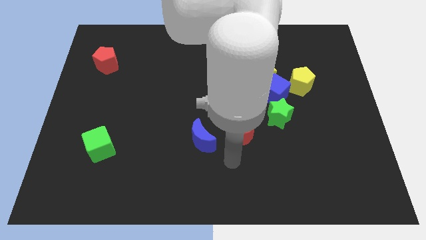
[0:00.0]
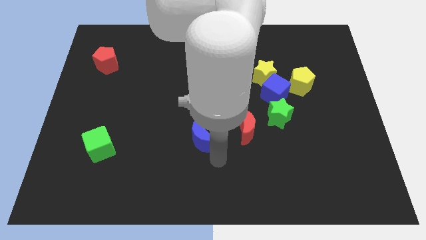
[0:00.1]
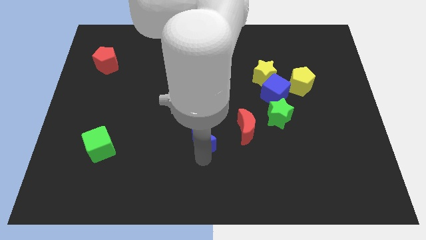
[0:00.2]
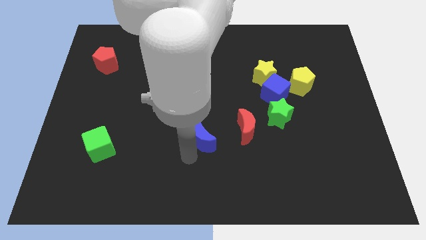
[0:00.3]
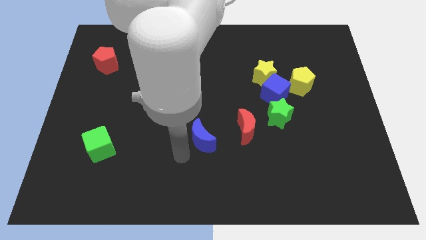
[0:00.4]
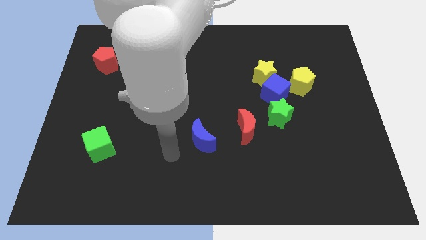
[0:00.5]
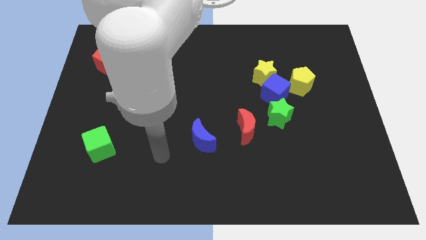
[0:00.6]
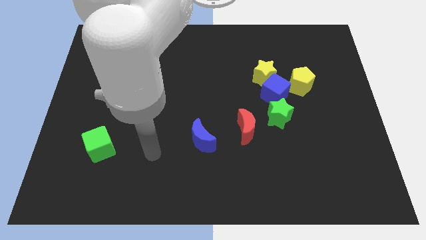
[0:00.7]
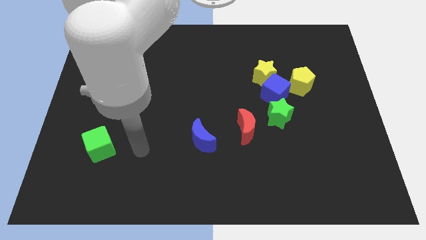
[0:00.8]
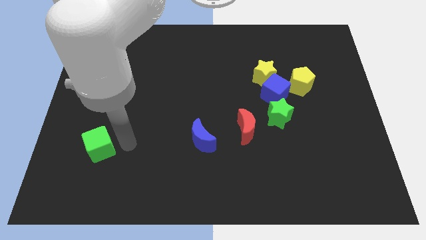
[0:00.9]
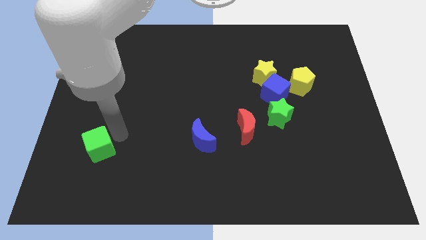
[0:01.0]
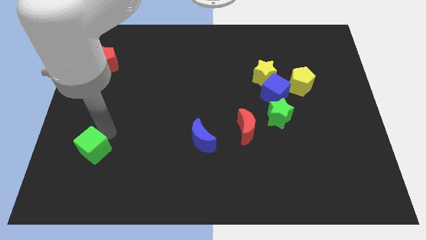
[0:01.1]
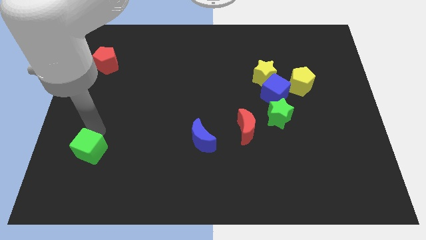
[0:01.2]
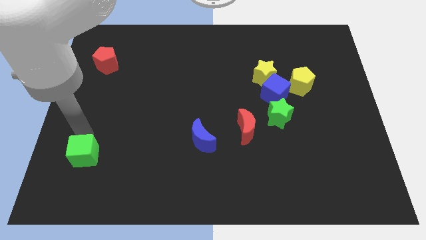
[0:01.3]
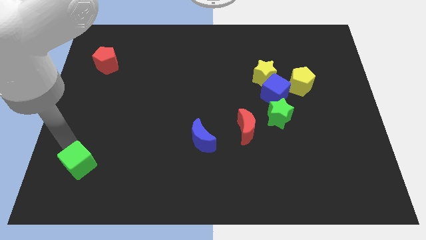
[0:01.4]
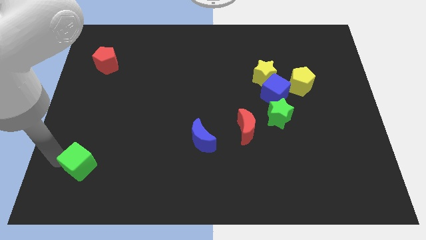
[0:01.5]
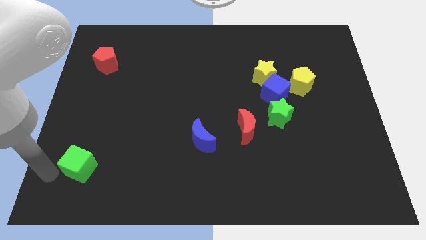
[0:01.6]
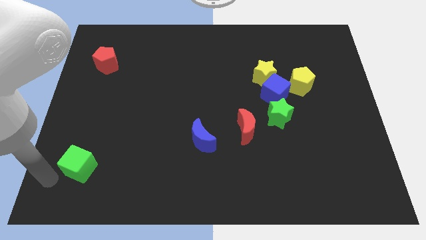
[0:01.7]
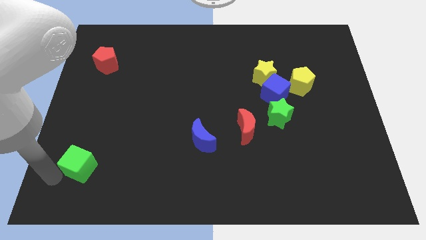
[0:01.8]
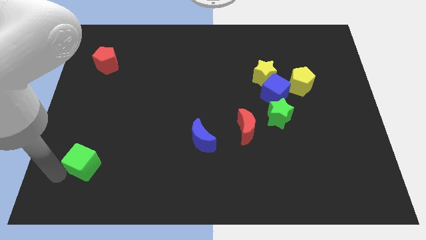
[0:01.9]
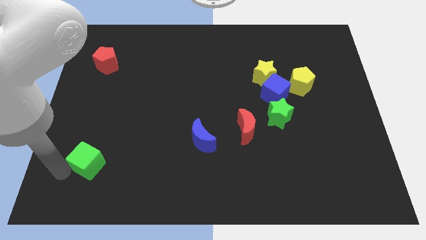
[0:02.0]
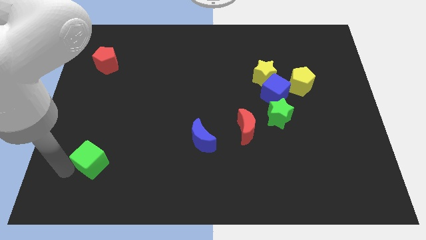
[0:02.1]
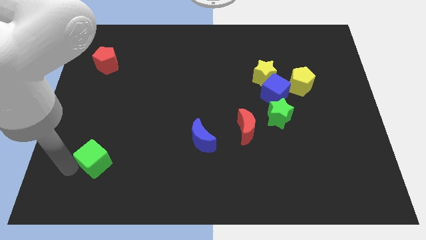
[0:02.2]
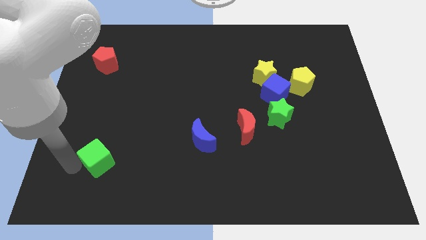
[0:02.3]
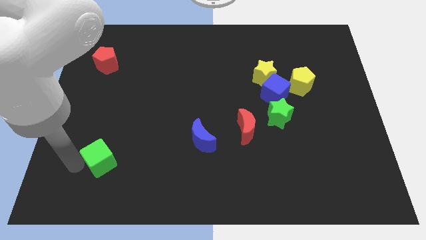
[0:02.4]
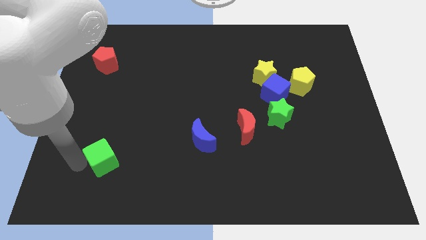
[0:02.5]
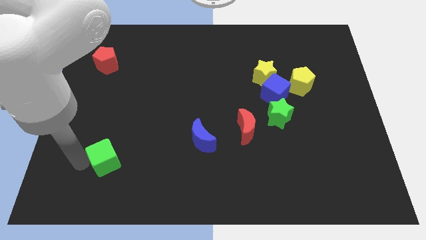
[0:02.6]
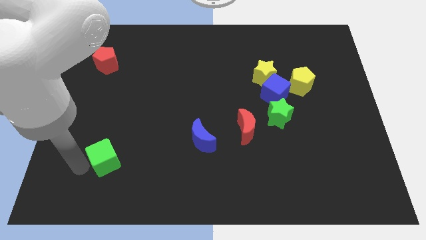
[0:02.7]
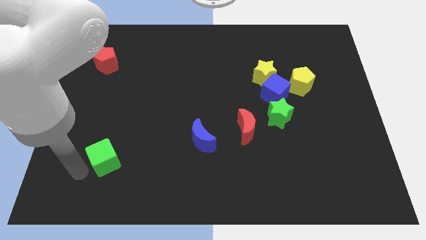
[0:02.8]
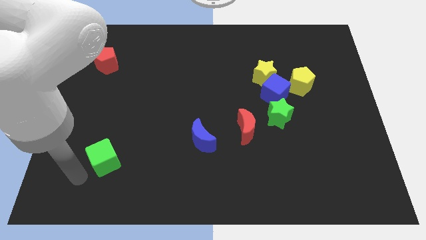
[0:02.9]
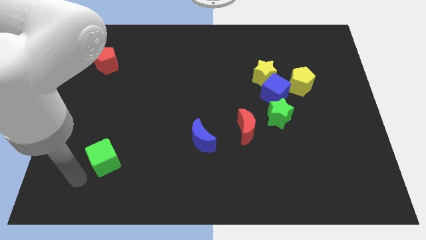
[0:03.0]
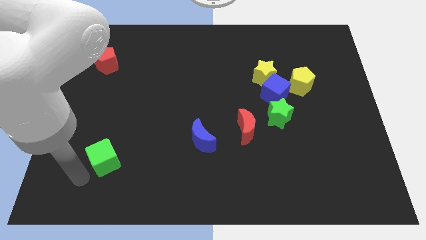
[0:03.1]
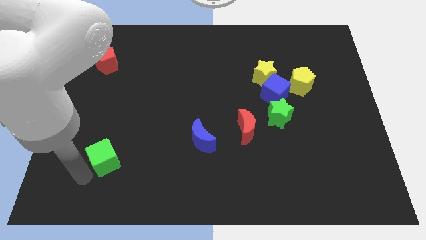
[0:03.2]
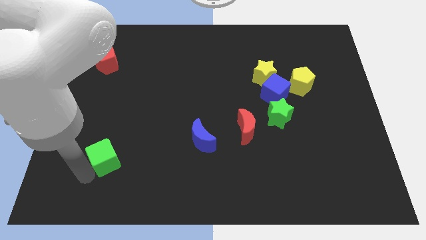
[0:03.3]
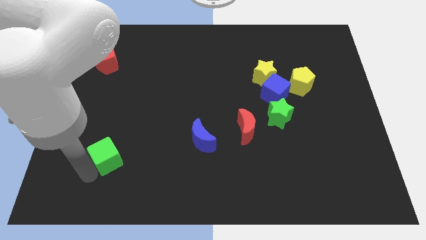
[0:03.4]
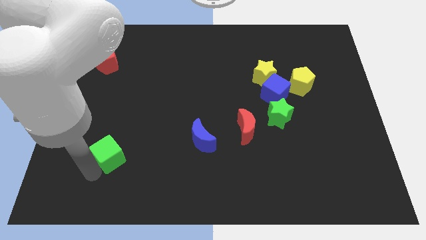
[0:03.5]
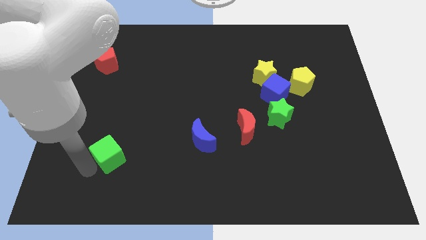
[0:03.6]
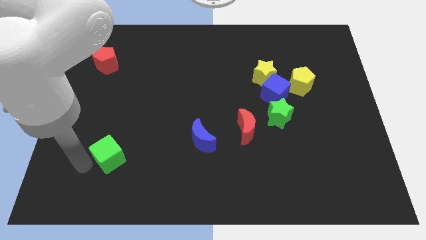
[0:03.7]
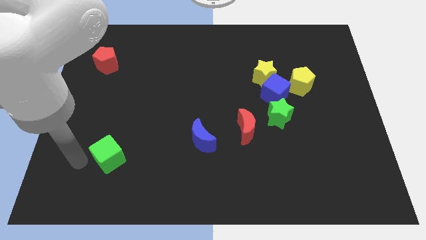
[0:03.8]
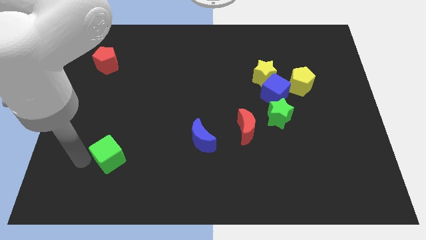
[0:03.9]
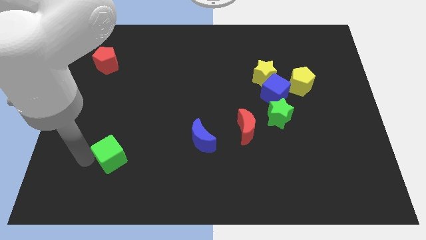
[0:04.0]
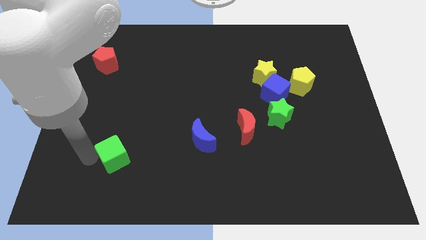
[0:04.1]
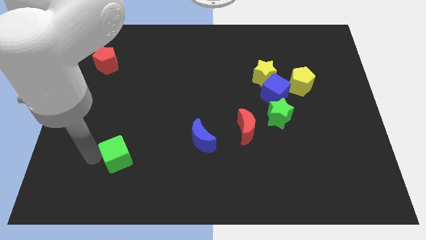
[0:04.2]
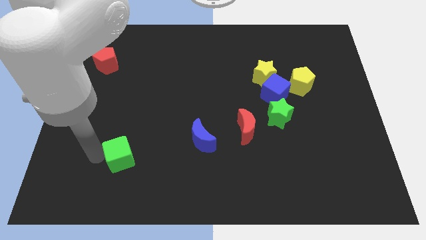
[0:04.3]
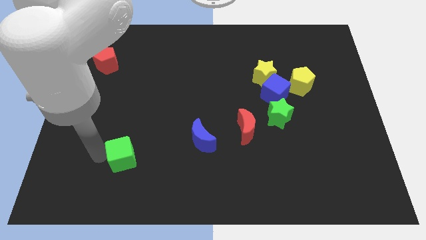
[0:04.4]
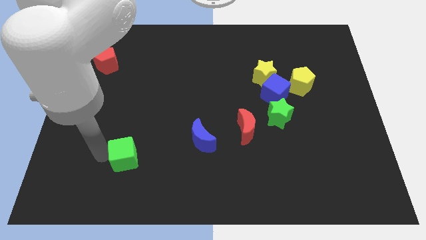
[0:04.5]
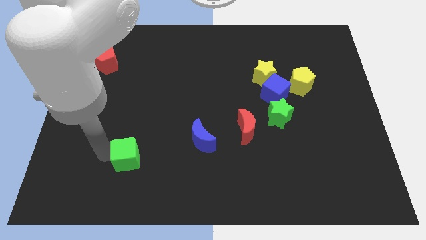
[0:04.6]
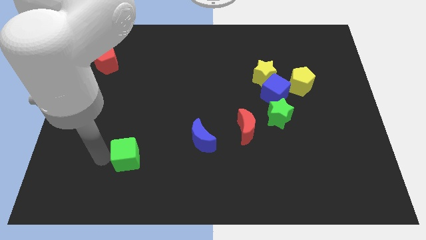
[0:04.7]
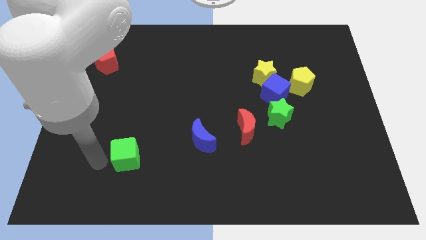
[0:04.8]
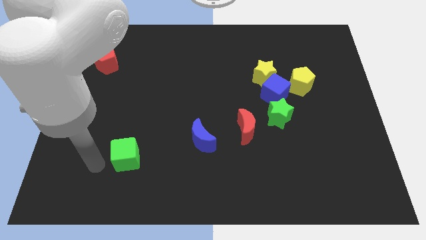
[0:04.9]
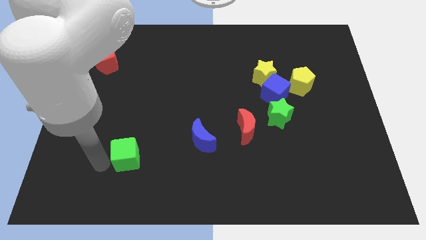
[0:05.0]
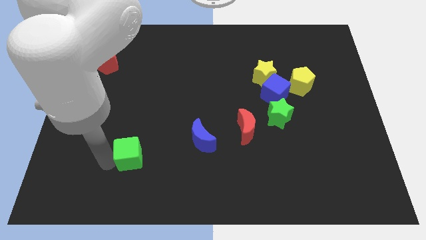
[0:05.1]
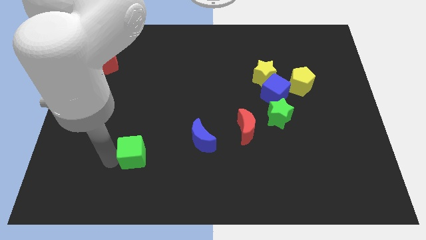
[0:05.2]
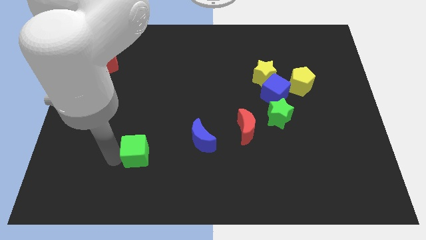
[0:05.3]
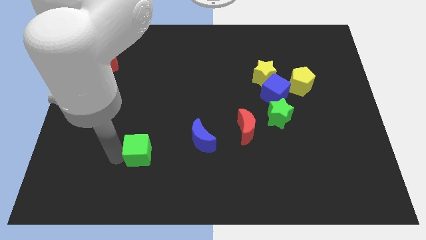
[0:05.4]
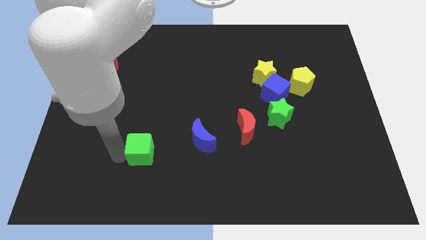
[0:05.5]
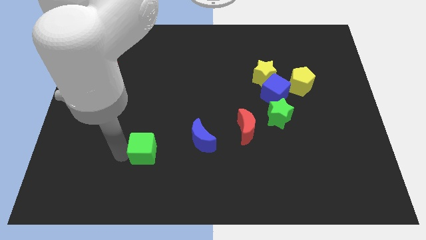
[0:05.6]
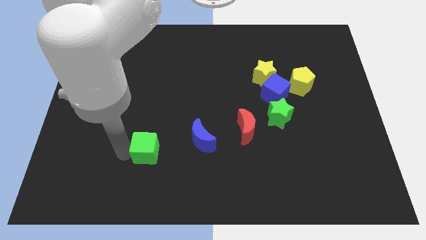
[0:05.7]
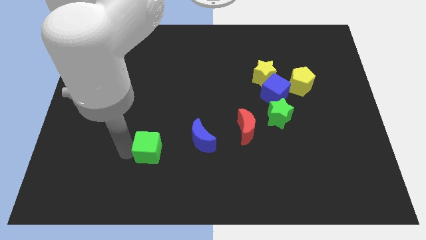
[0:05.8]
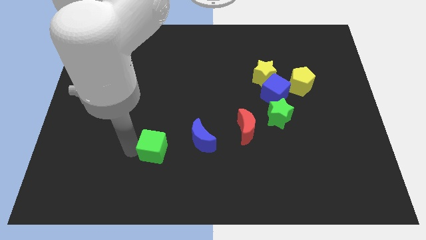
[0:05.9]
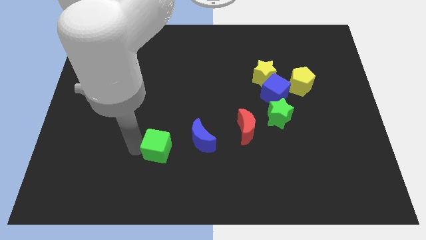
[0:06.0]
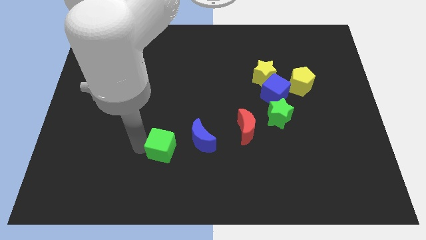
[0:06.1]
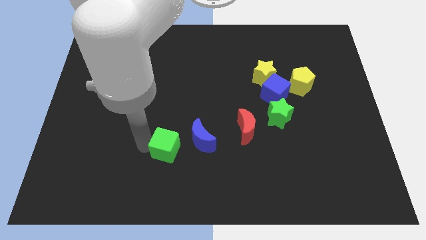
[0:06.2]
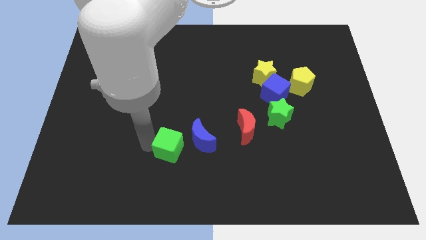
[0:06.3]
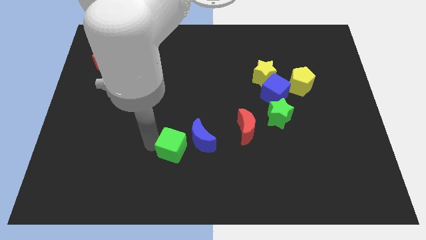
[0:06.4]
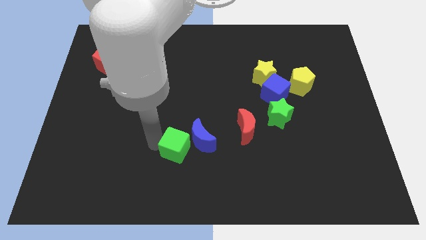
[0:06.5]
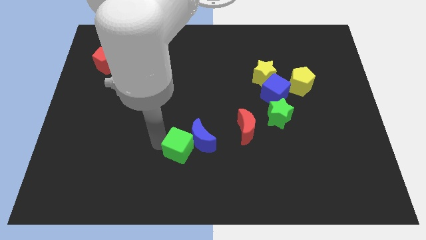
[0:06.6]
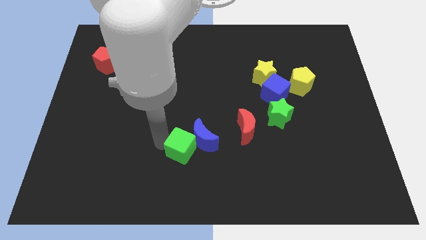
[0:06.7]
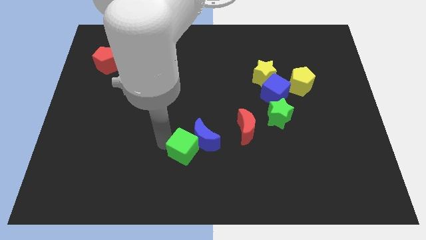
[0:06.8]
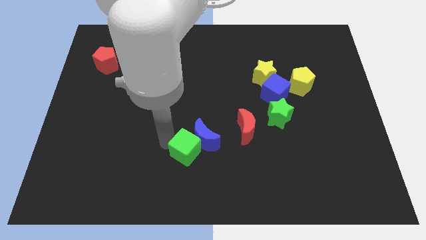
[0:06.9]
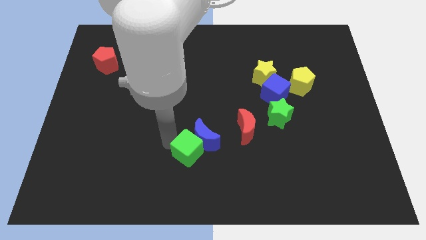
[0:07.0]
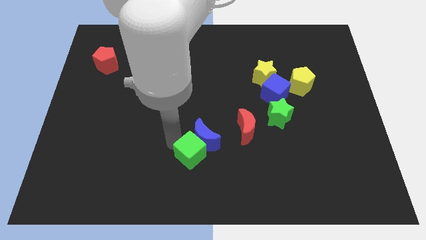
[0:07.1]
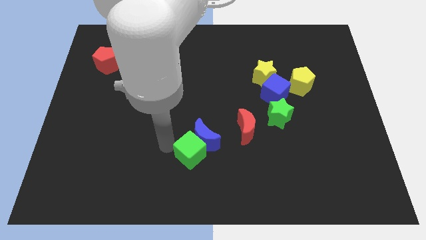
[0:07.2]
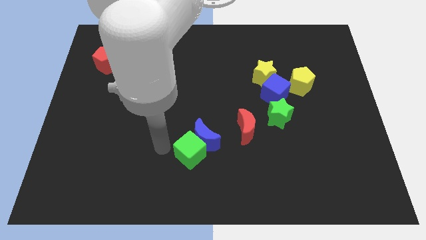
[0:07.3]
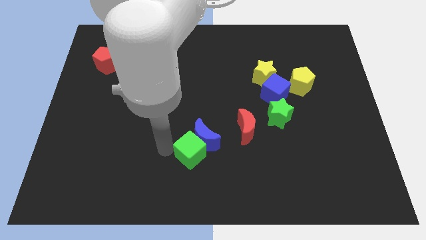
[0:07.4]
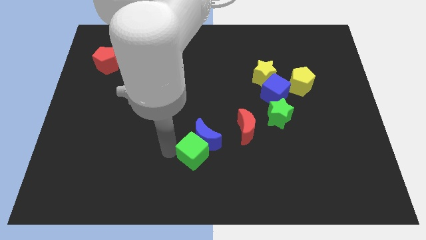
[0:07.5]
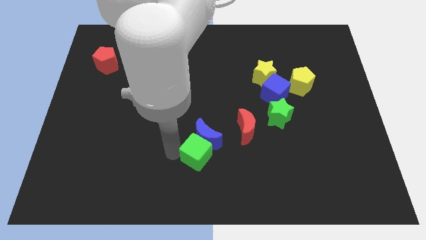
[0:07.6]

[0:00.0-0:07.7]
slide the green cube diagonally down and to the right of the blue moon
